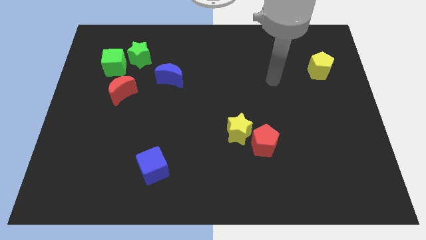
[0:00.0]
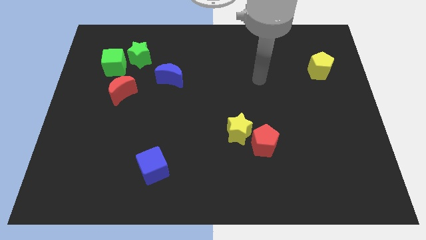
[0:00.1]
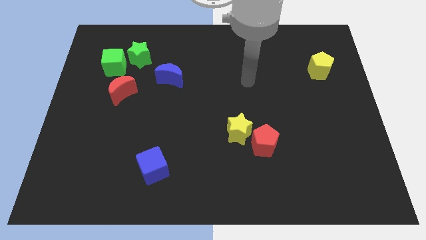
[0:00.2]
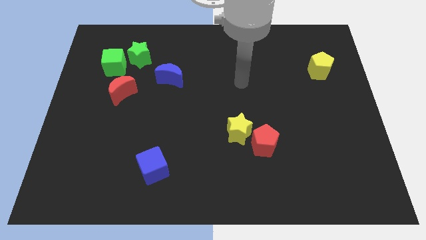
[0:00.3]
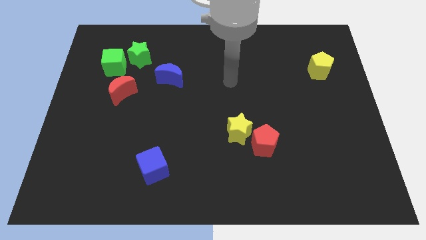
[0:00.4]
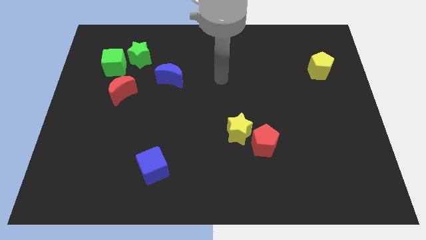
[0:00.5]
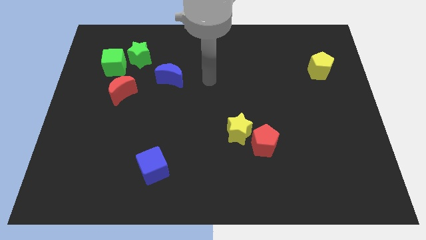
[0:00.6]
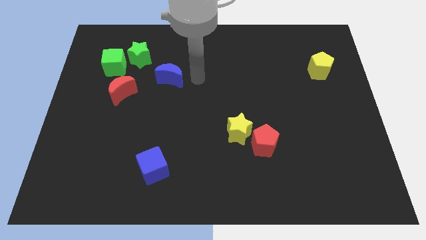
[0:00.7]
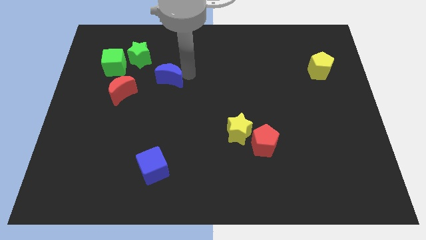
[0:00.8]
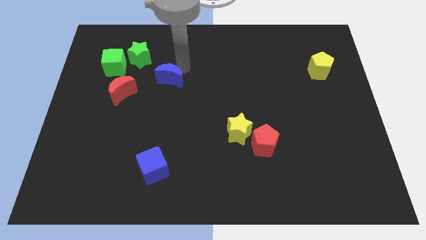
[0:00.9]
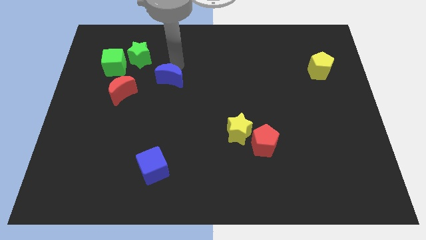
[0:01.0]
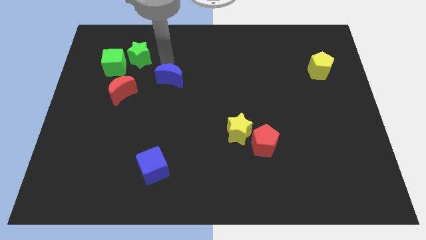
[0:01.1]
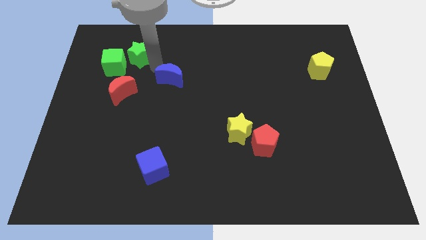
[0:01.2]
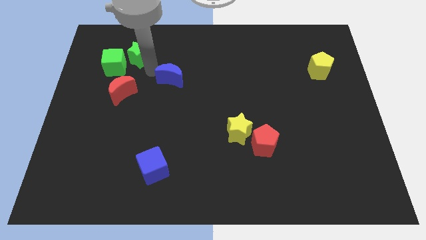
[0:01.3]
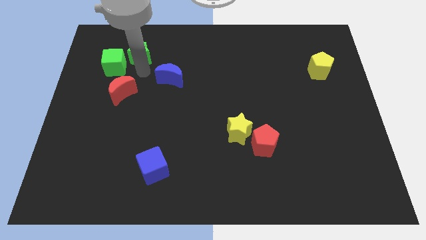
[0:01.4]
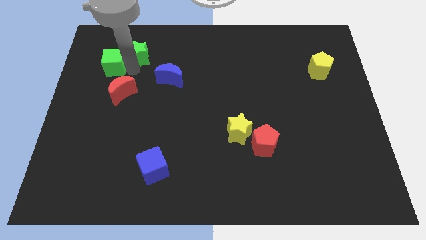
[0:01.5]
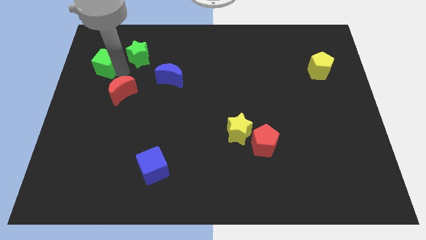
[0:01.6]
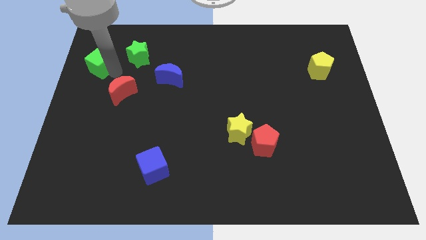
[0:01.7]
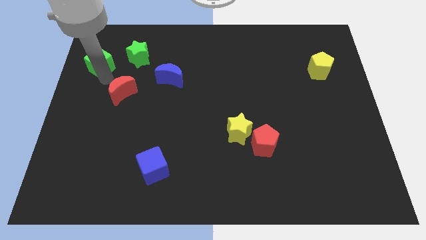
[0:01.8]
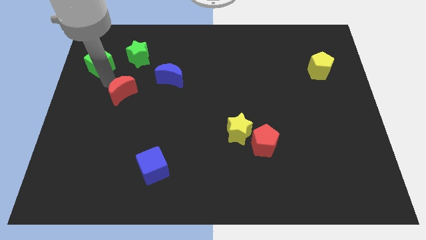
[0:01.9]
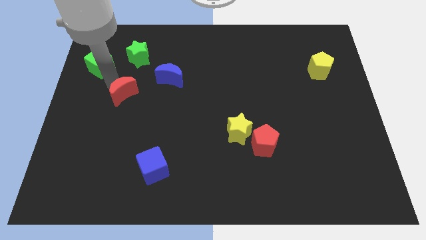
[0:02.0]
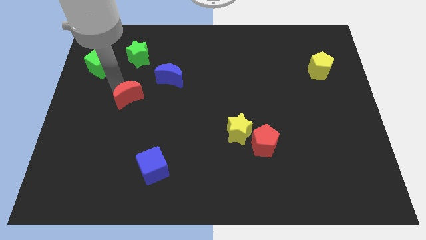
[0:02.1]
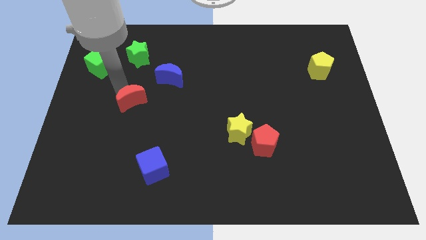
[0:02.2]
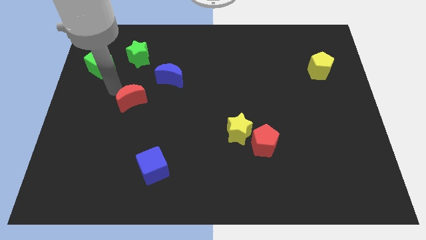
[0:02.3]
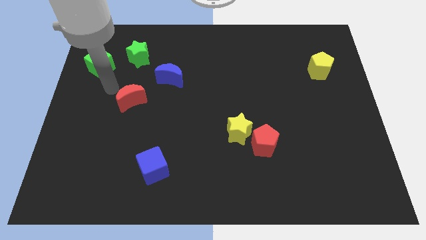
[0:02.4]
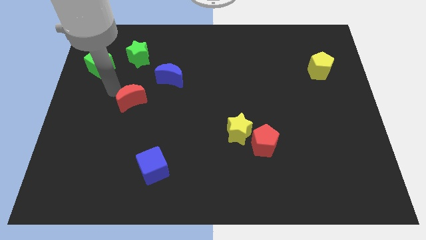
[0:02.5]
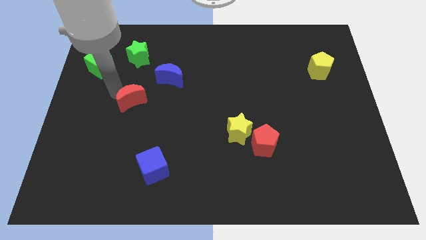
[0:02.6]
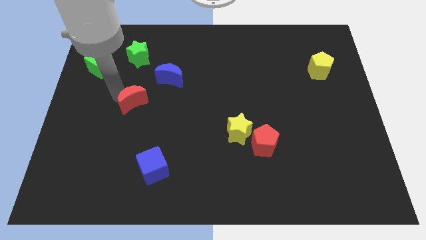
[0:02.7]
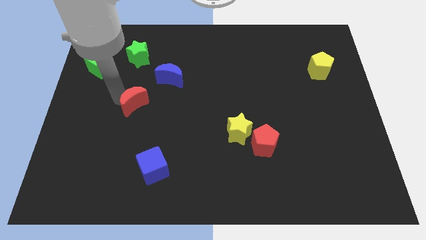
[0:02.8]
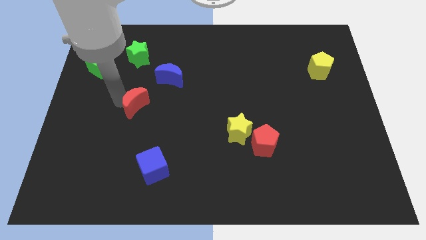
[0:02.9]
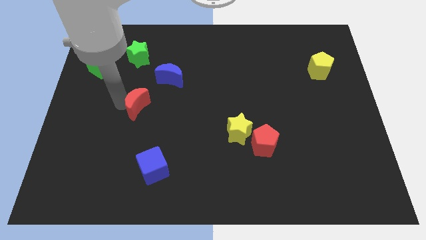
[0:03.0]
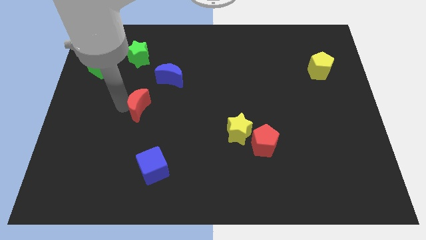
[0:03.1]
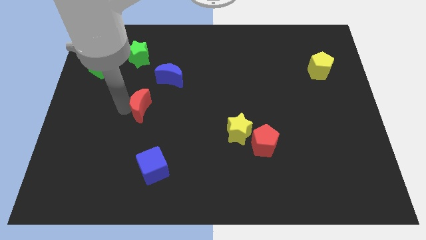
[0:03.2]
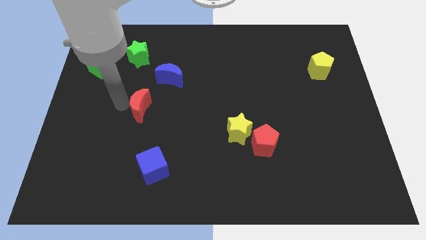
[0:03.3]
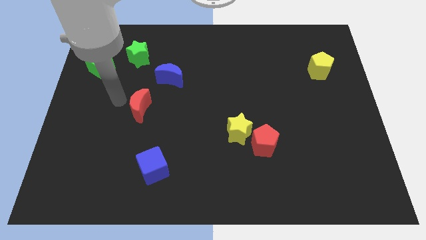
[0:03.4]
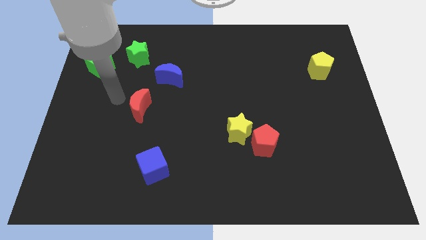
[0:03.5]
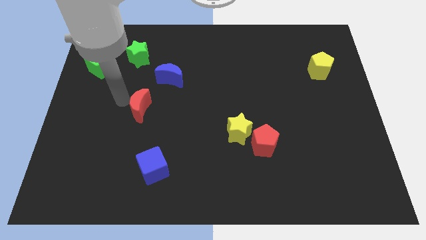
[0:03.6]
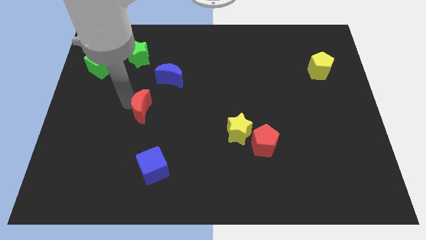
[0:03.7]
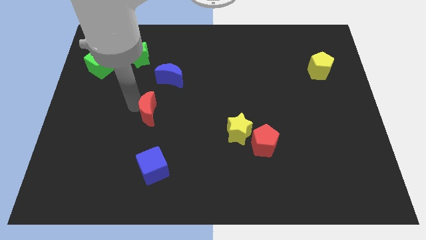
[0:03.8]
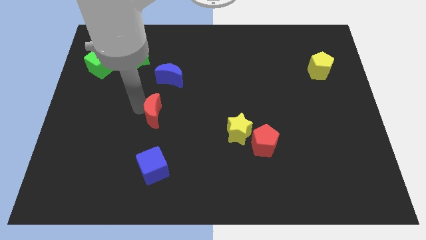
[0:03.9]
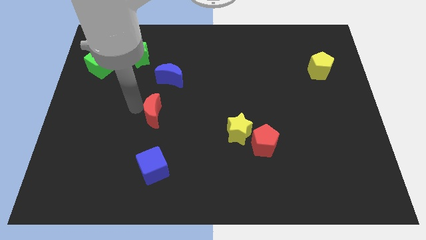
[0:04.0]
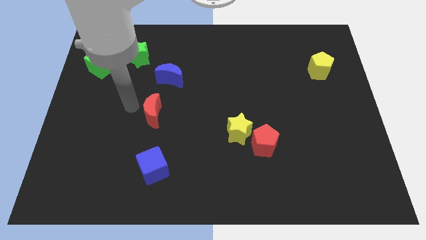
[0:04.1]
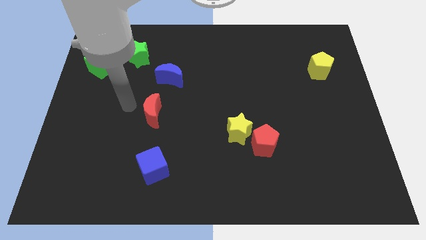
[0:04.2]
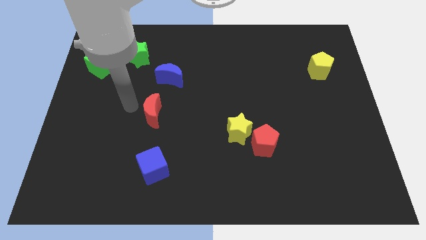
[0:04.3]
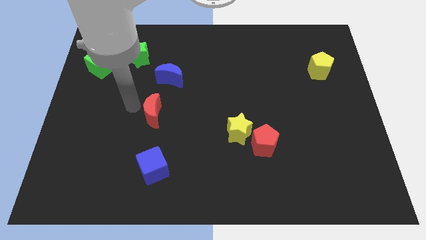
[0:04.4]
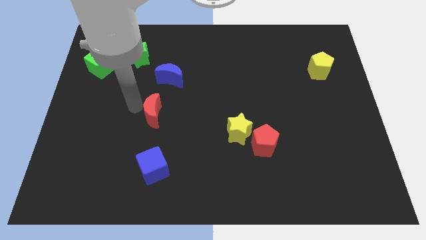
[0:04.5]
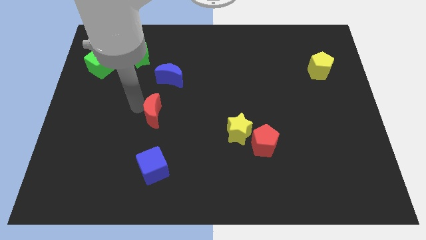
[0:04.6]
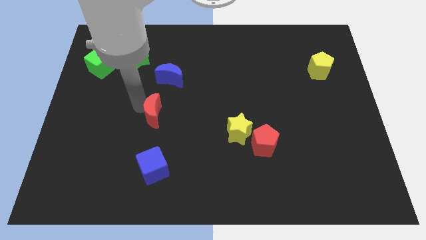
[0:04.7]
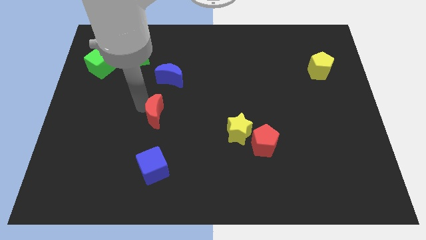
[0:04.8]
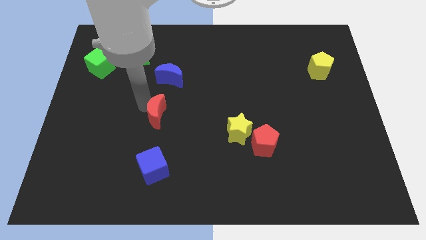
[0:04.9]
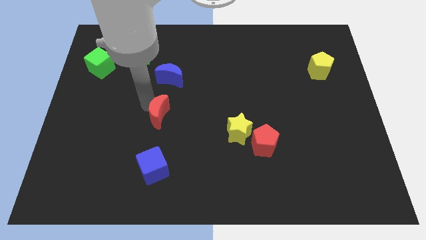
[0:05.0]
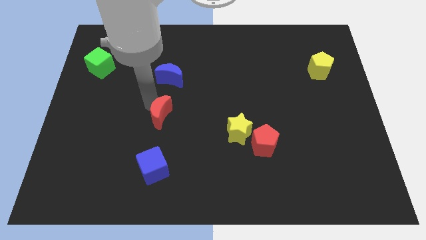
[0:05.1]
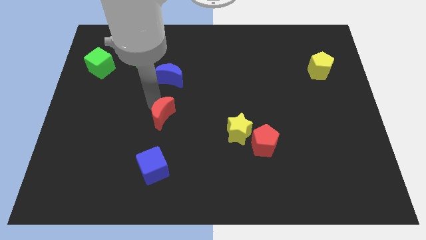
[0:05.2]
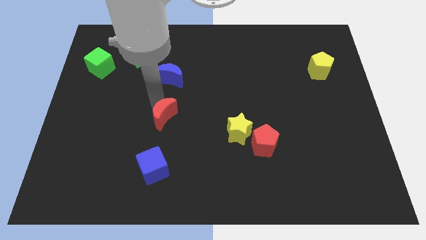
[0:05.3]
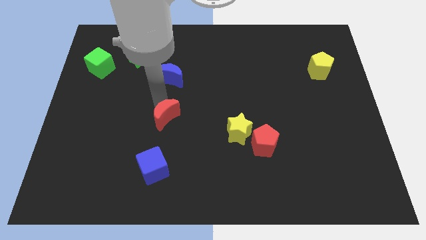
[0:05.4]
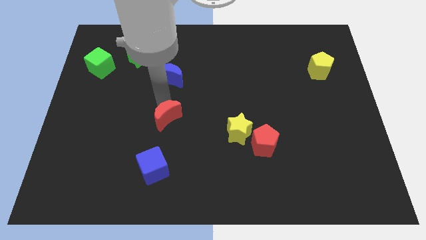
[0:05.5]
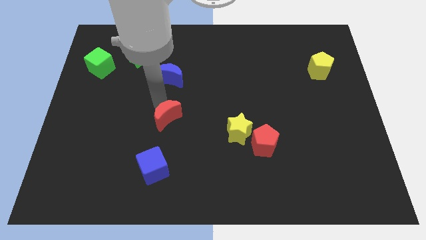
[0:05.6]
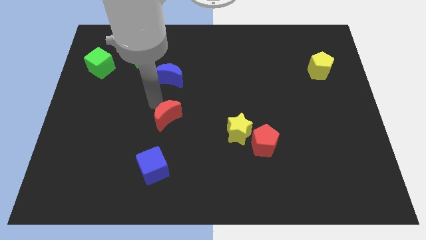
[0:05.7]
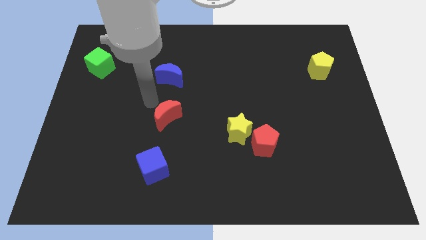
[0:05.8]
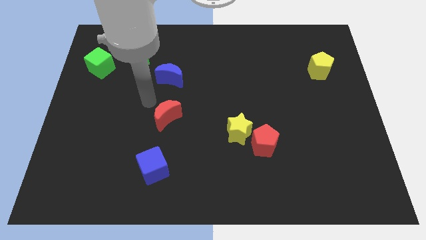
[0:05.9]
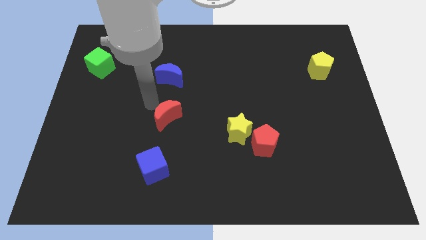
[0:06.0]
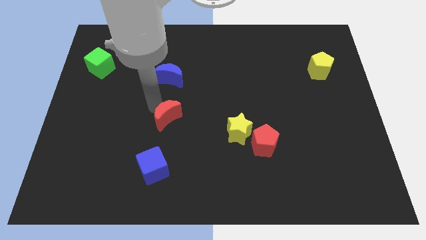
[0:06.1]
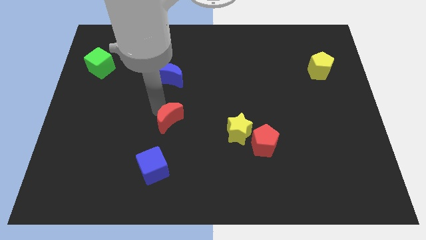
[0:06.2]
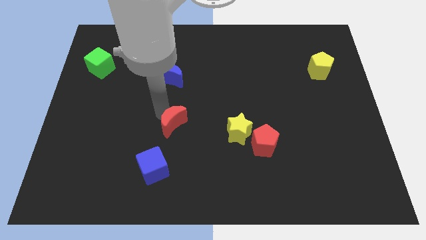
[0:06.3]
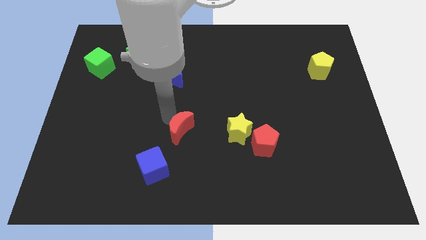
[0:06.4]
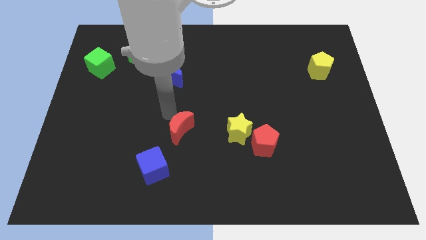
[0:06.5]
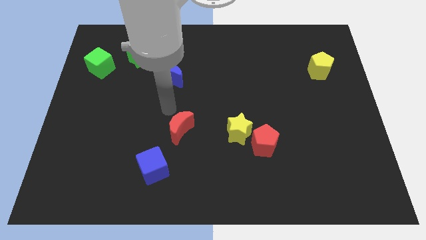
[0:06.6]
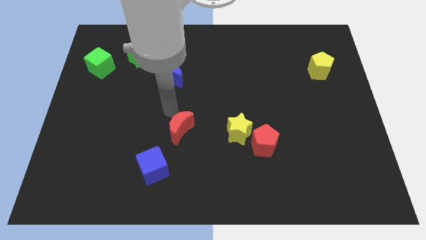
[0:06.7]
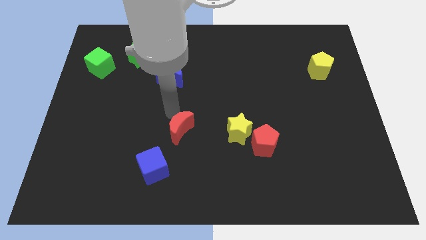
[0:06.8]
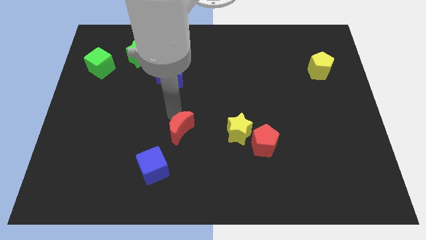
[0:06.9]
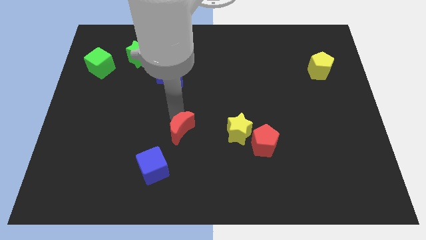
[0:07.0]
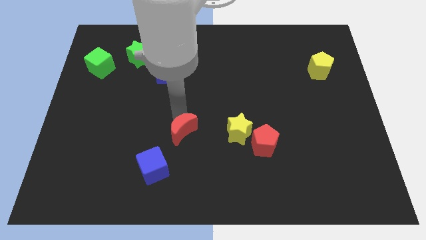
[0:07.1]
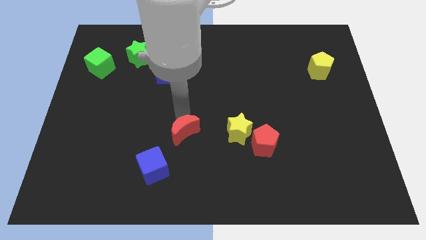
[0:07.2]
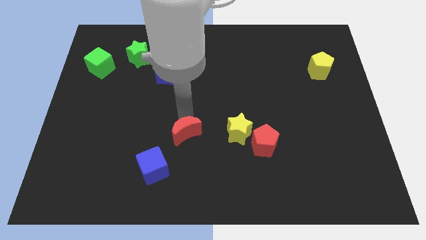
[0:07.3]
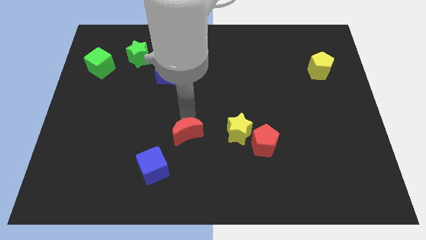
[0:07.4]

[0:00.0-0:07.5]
slide the red moon downwards and right
